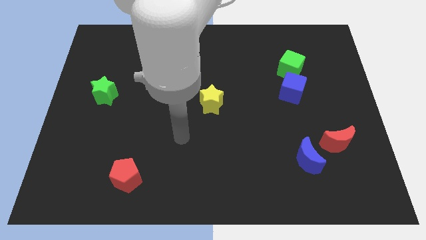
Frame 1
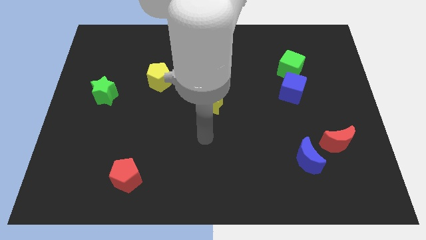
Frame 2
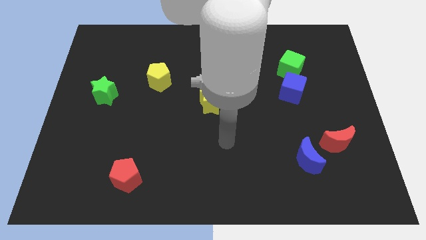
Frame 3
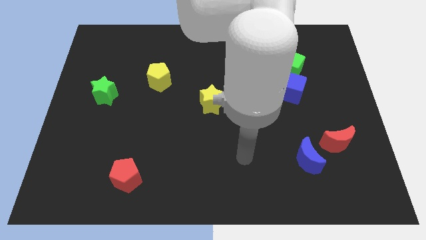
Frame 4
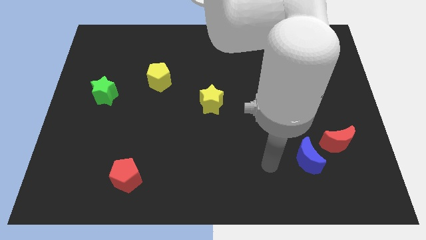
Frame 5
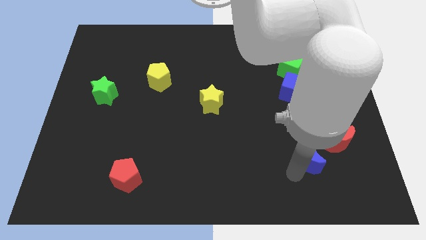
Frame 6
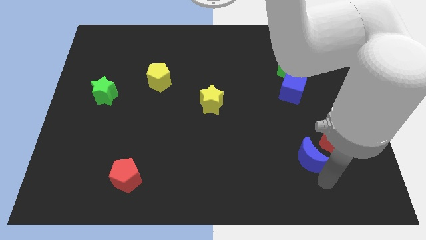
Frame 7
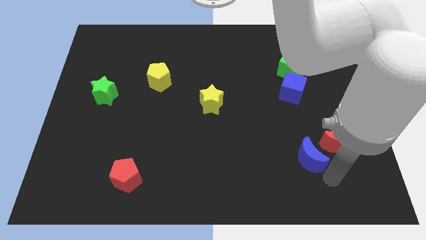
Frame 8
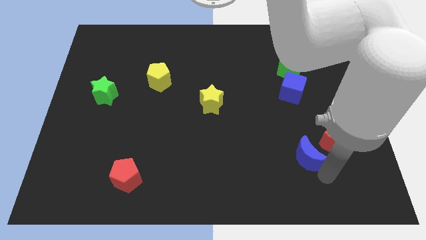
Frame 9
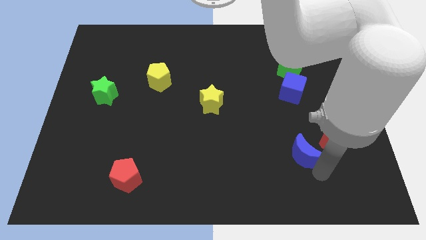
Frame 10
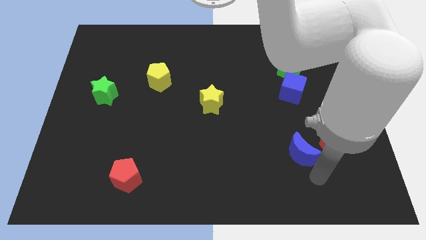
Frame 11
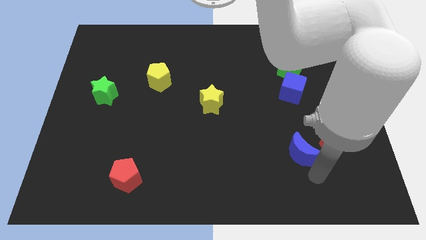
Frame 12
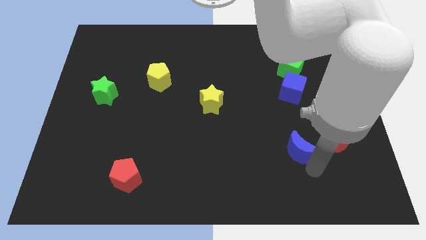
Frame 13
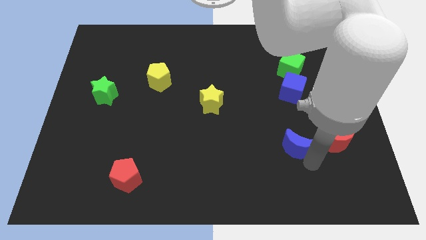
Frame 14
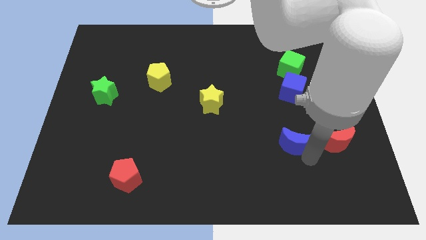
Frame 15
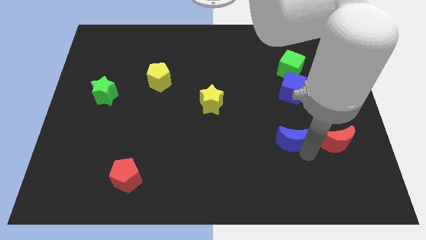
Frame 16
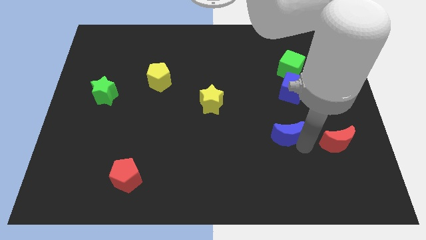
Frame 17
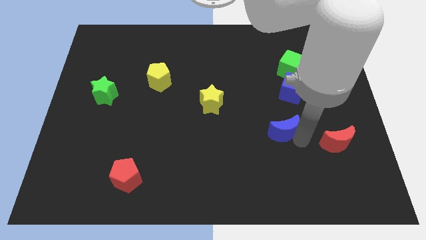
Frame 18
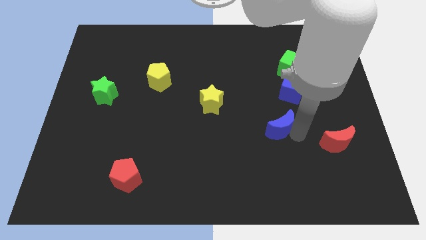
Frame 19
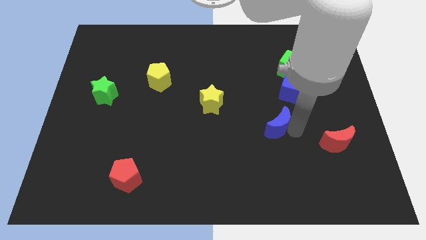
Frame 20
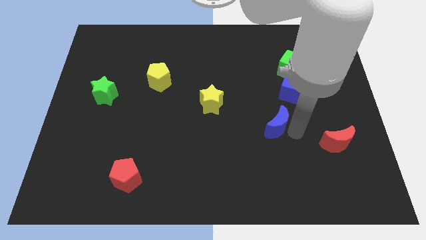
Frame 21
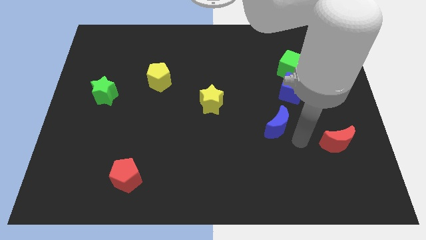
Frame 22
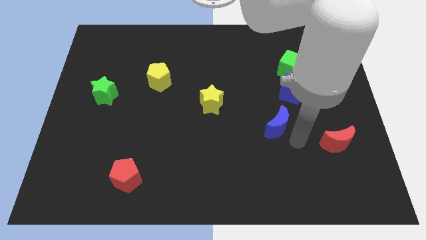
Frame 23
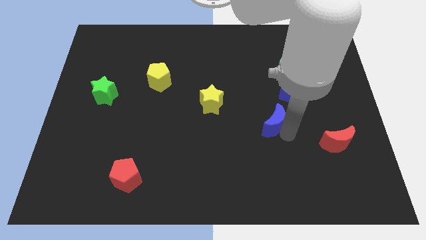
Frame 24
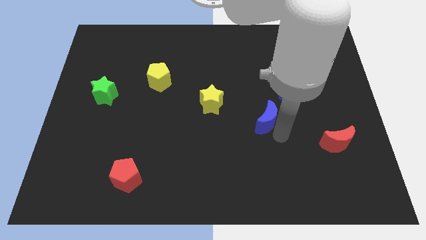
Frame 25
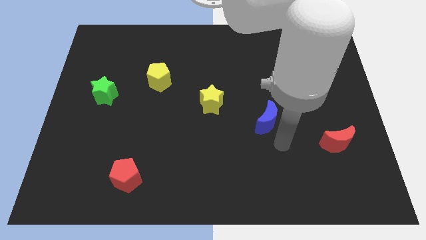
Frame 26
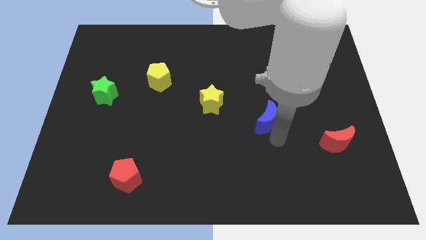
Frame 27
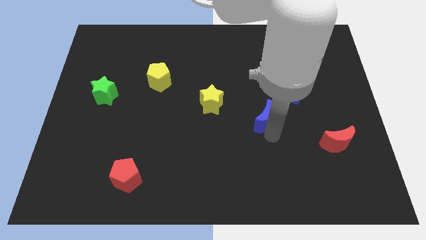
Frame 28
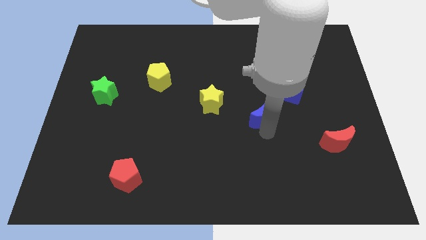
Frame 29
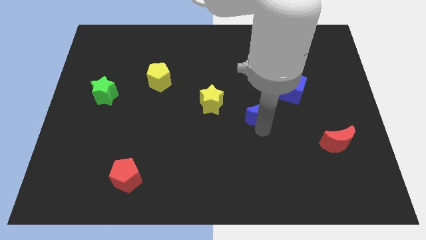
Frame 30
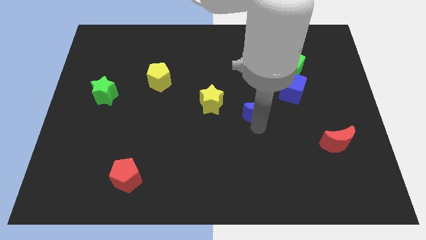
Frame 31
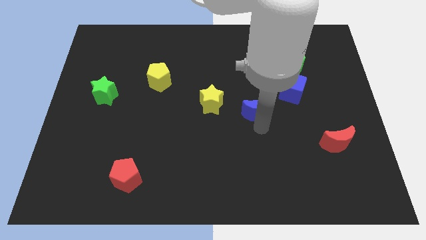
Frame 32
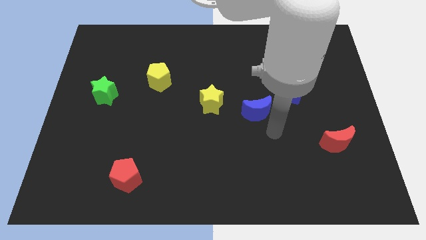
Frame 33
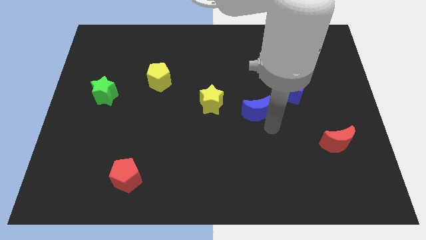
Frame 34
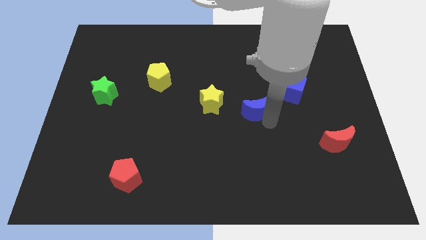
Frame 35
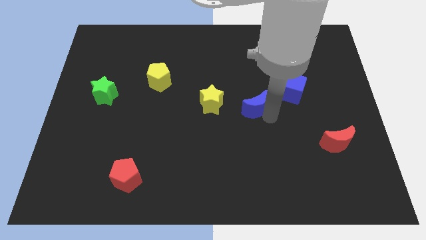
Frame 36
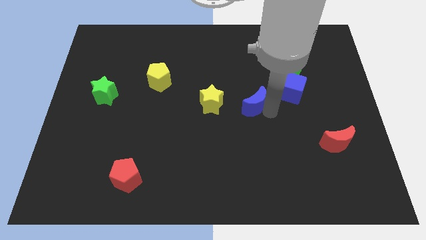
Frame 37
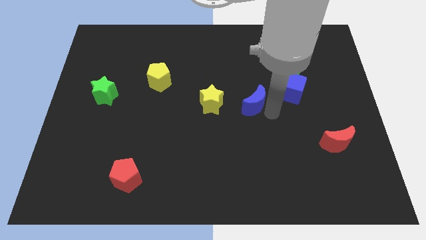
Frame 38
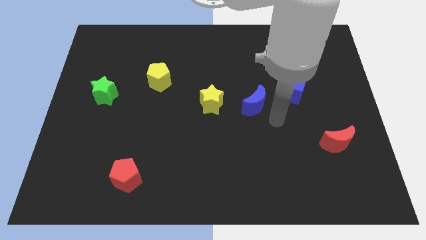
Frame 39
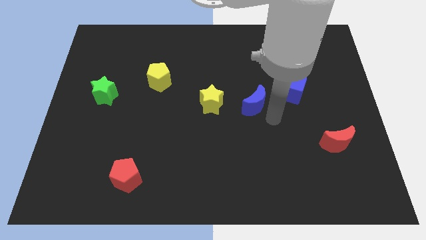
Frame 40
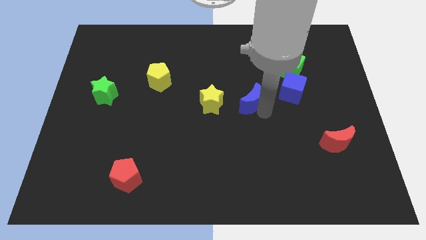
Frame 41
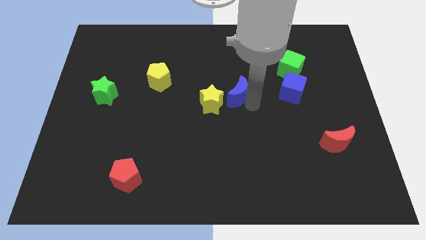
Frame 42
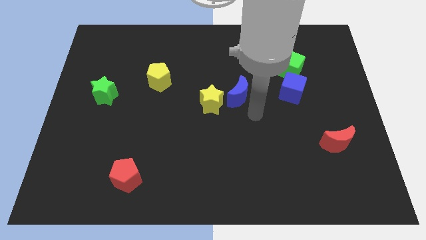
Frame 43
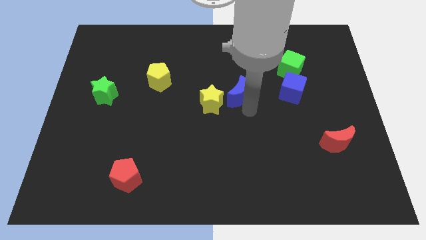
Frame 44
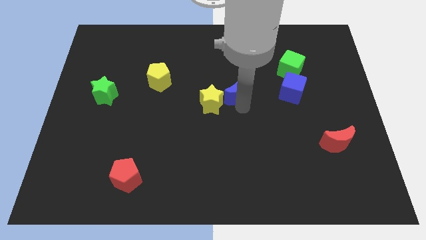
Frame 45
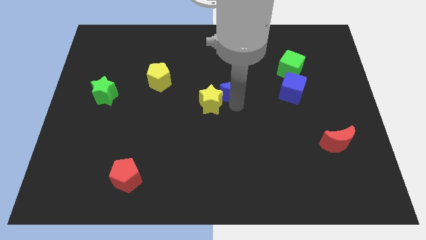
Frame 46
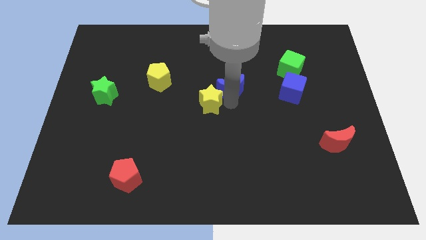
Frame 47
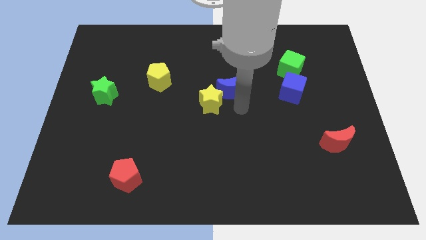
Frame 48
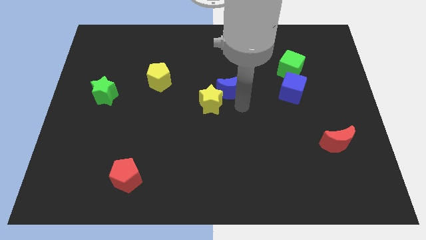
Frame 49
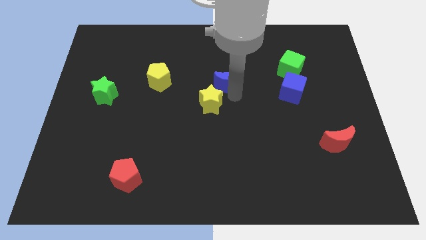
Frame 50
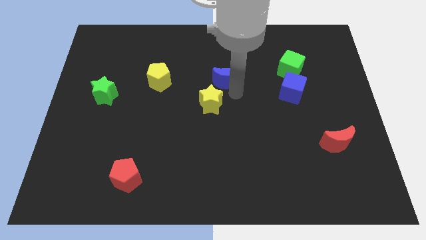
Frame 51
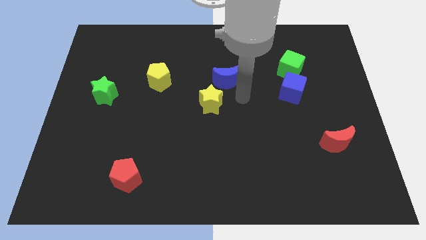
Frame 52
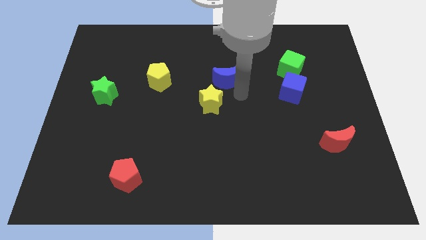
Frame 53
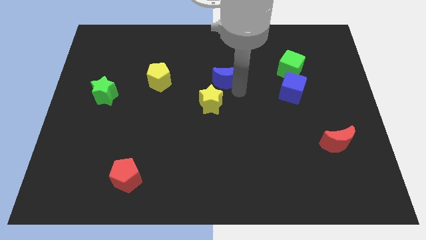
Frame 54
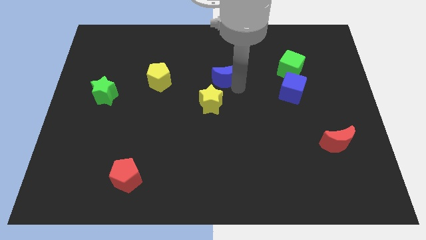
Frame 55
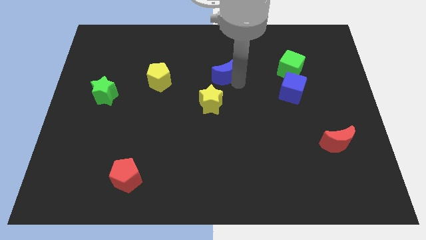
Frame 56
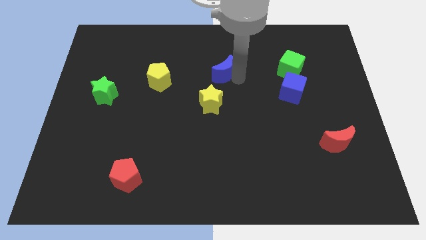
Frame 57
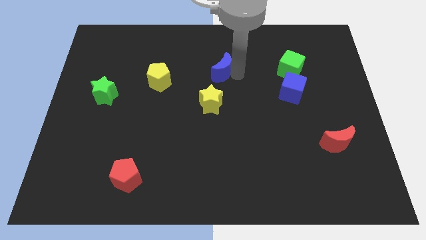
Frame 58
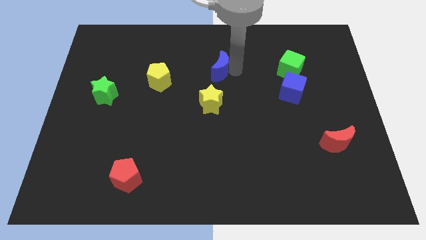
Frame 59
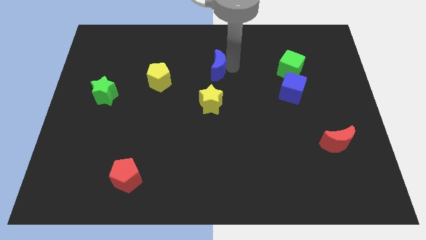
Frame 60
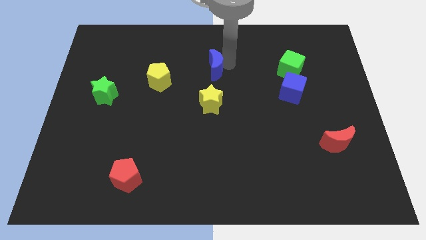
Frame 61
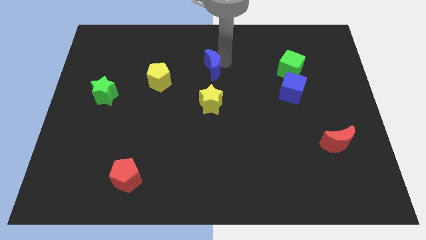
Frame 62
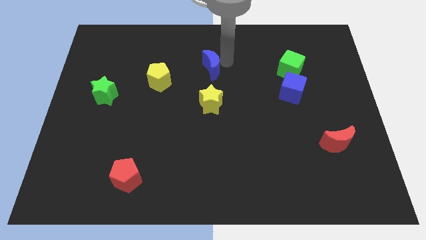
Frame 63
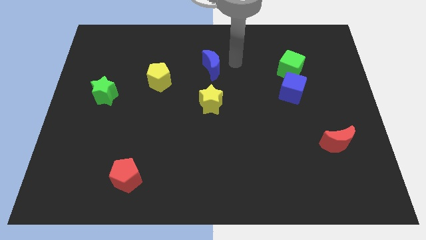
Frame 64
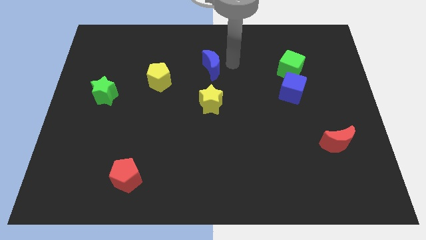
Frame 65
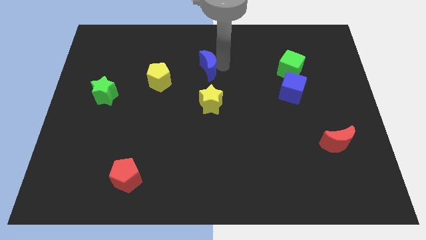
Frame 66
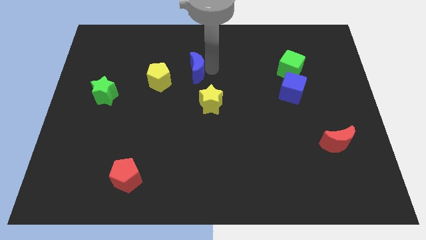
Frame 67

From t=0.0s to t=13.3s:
push the blue moon to the top right side of the yellow pentagon
